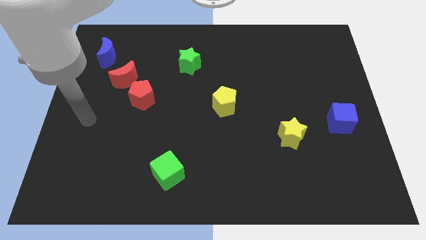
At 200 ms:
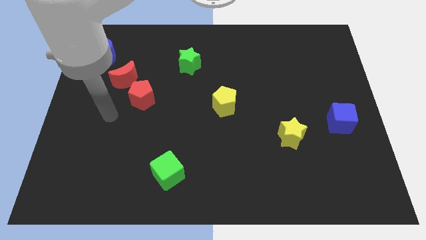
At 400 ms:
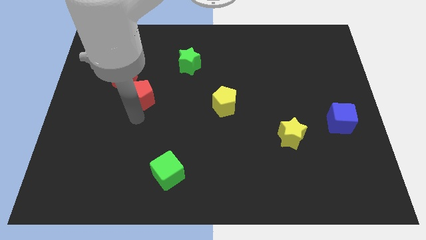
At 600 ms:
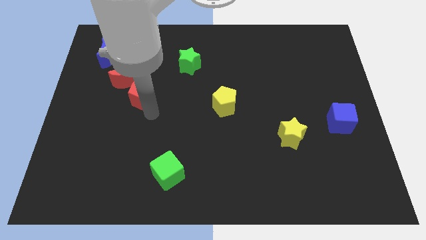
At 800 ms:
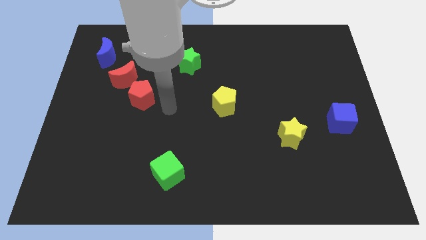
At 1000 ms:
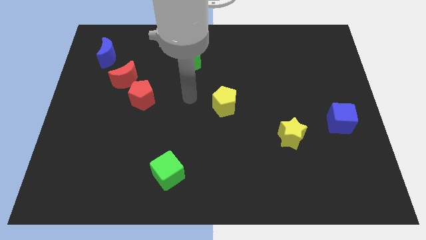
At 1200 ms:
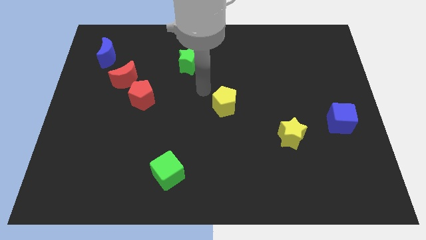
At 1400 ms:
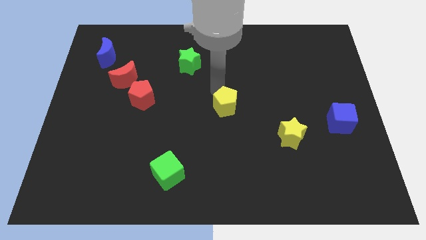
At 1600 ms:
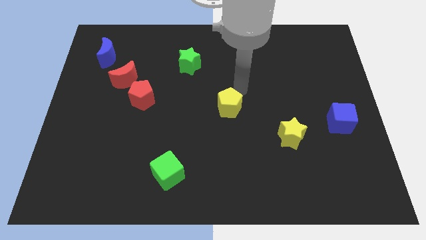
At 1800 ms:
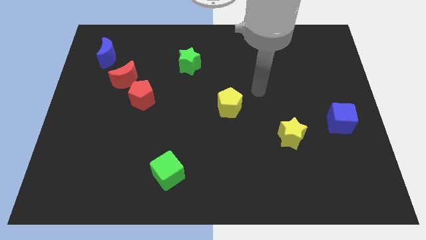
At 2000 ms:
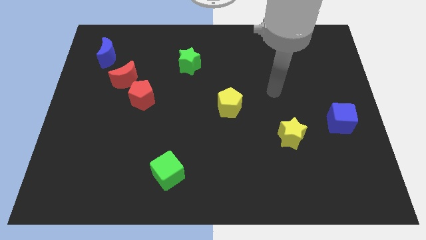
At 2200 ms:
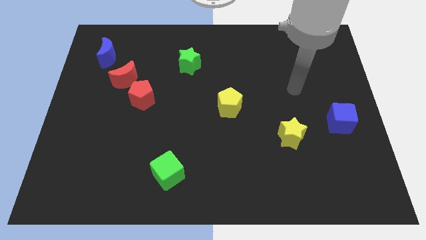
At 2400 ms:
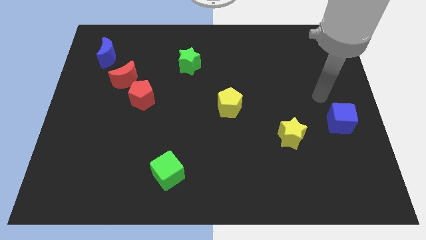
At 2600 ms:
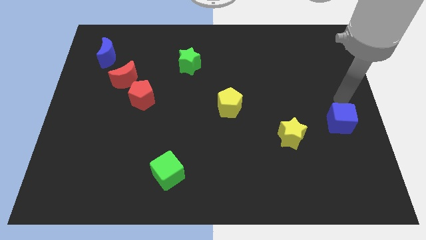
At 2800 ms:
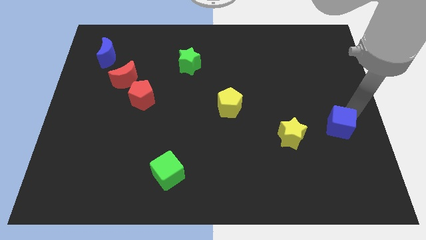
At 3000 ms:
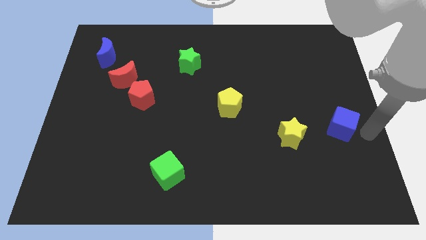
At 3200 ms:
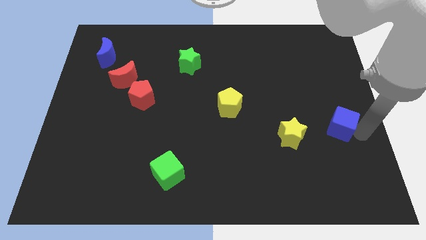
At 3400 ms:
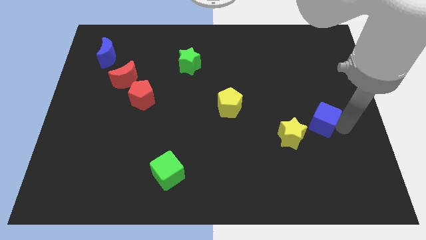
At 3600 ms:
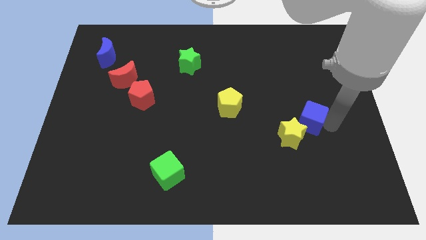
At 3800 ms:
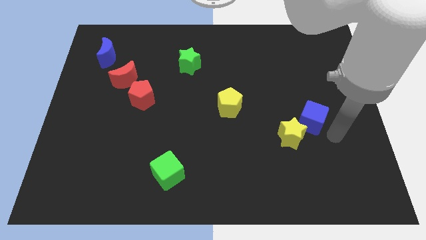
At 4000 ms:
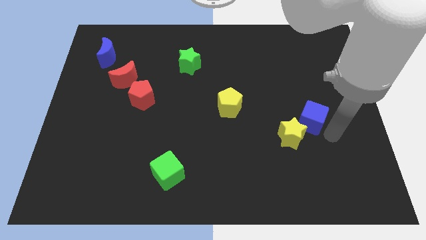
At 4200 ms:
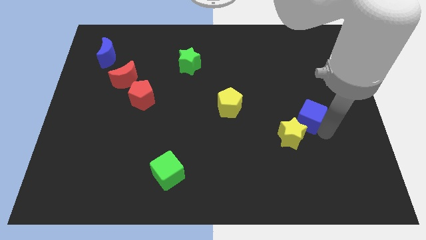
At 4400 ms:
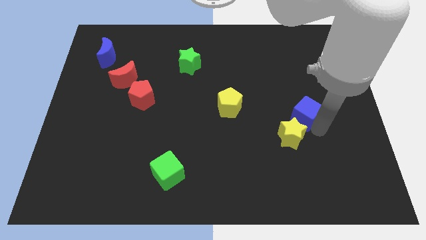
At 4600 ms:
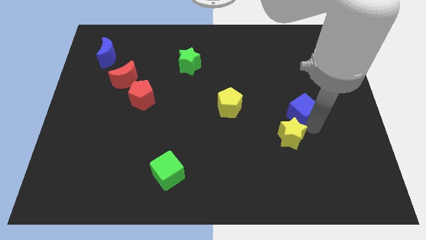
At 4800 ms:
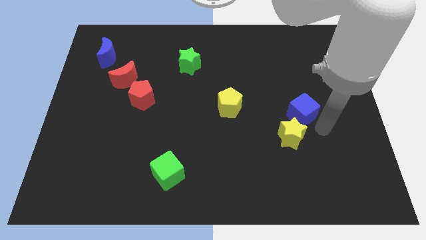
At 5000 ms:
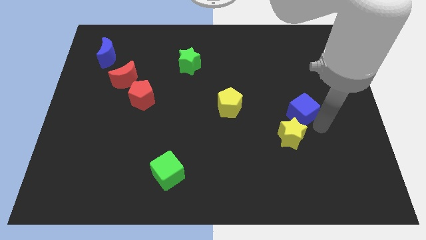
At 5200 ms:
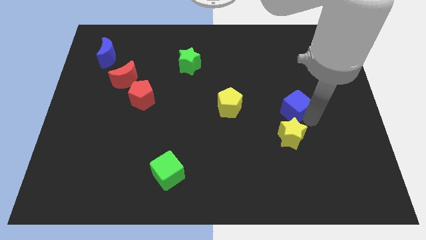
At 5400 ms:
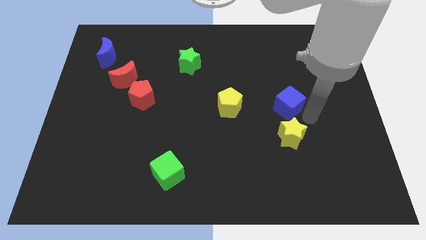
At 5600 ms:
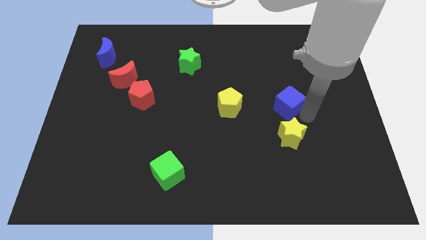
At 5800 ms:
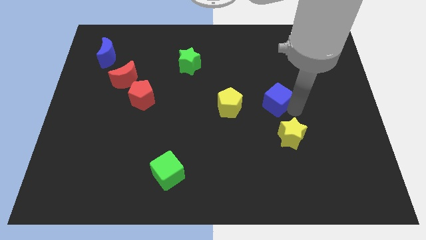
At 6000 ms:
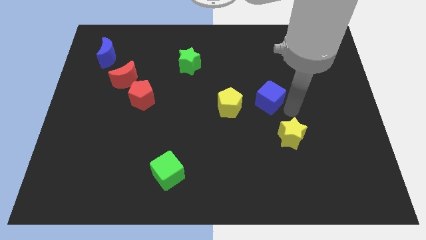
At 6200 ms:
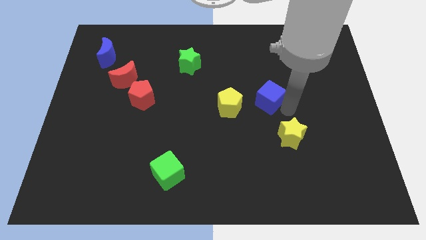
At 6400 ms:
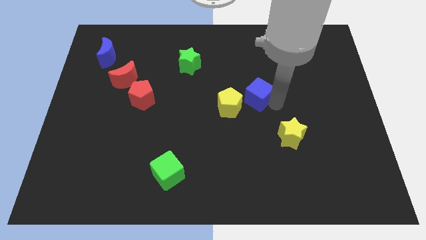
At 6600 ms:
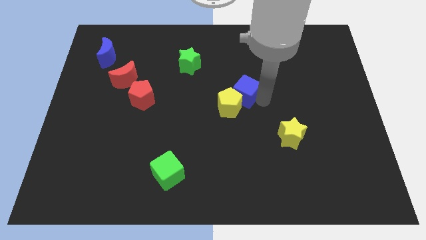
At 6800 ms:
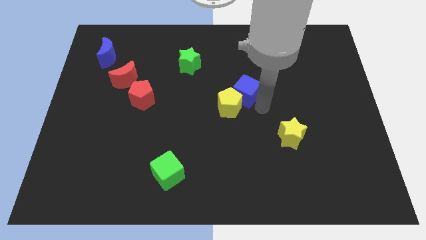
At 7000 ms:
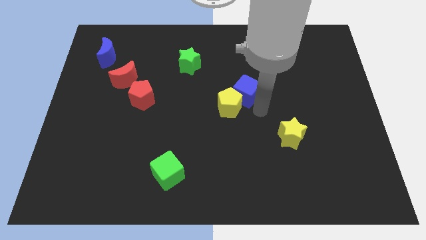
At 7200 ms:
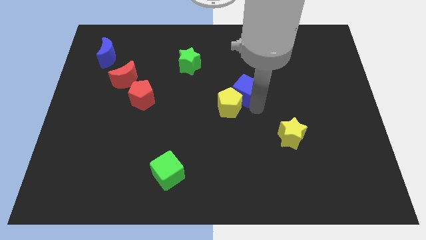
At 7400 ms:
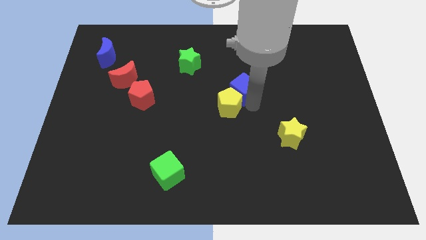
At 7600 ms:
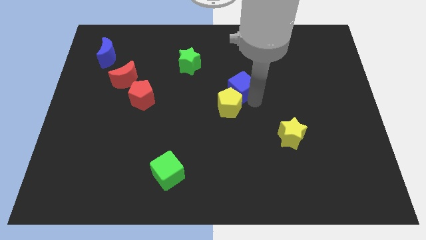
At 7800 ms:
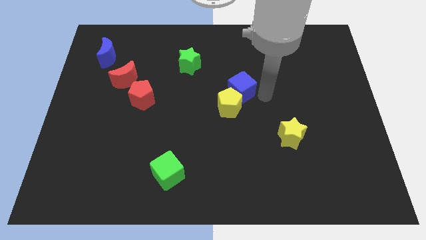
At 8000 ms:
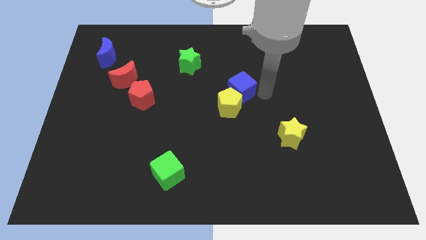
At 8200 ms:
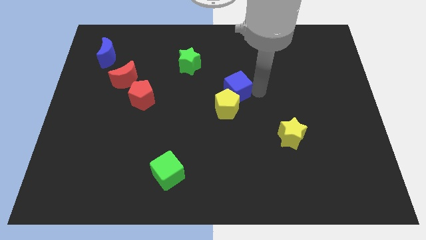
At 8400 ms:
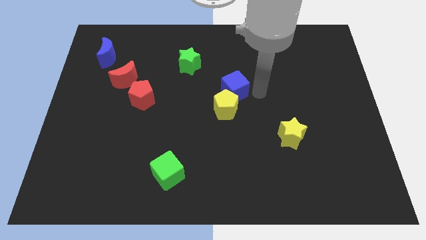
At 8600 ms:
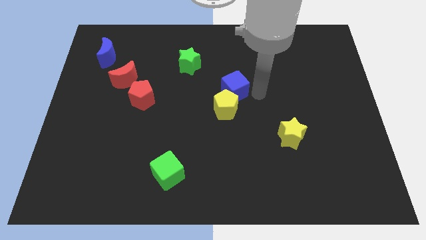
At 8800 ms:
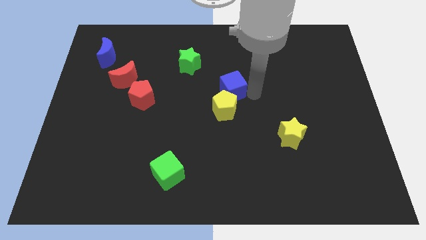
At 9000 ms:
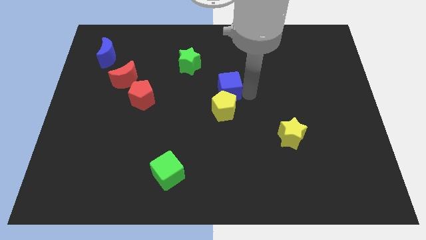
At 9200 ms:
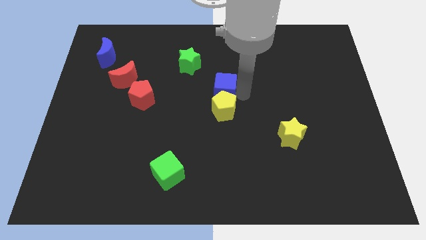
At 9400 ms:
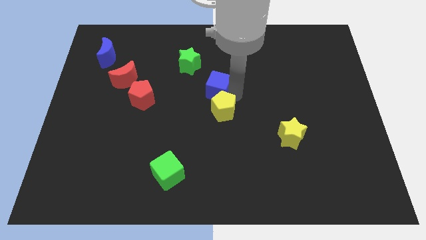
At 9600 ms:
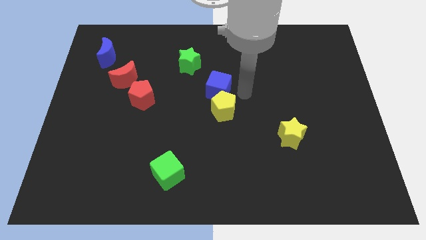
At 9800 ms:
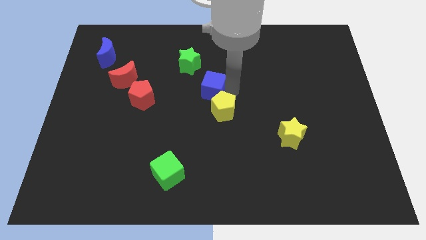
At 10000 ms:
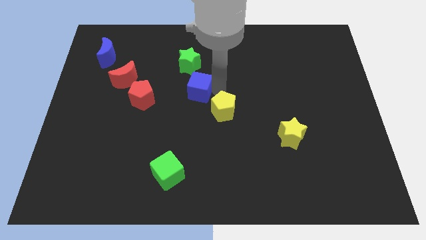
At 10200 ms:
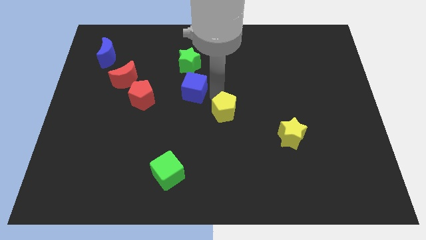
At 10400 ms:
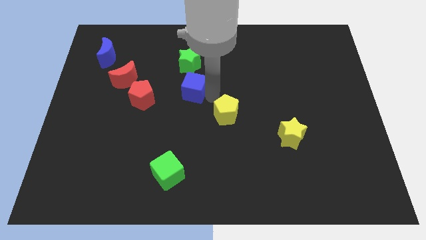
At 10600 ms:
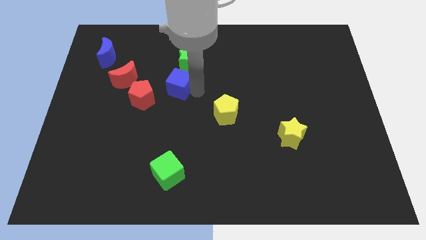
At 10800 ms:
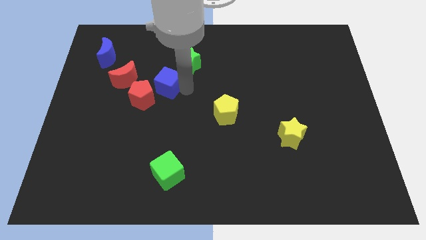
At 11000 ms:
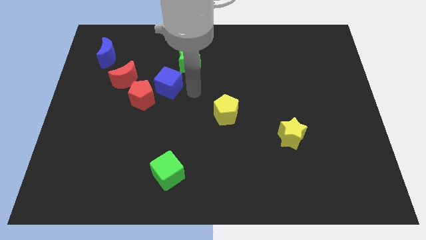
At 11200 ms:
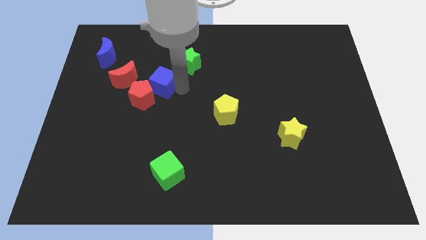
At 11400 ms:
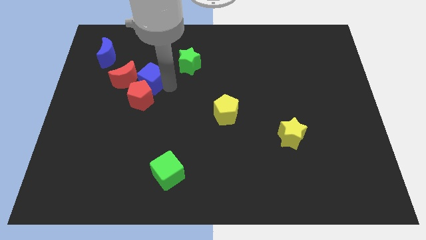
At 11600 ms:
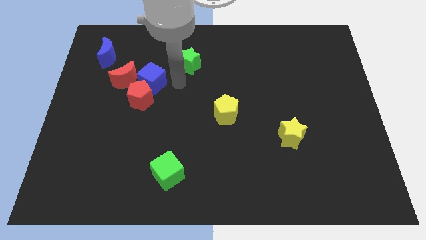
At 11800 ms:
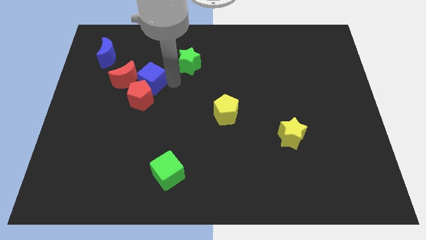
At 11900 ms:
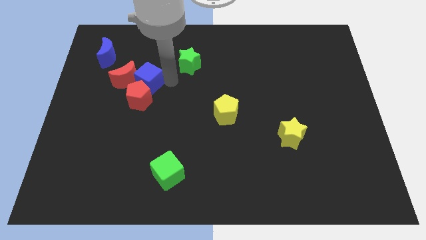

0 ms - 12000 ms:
move the blue cube towards the red moon

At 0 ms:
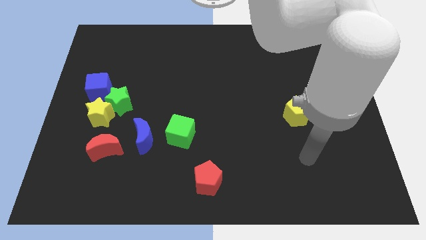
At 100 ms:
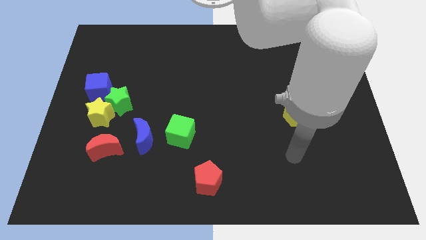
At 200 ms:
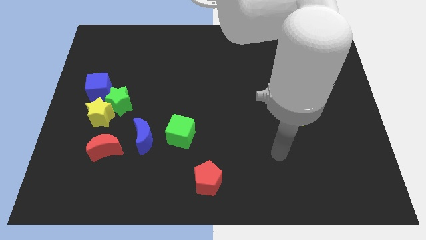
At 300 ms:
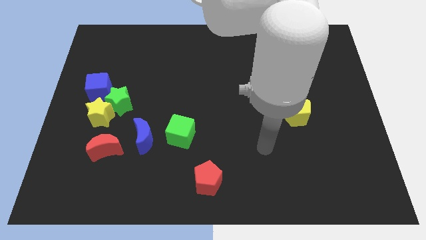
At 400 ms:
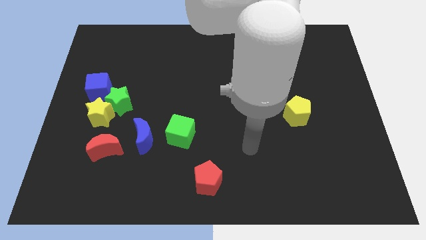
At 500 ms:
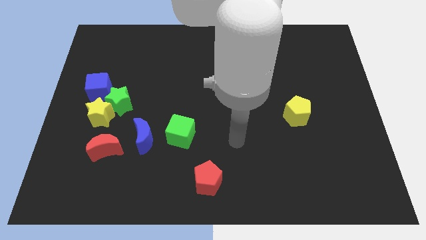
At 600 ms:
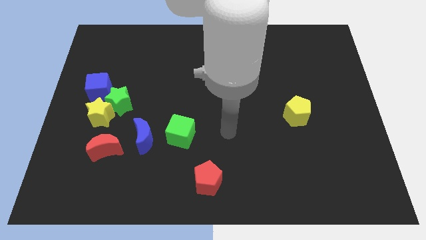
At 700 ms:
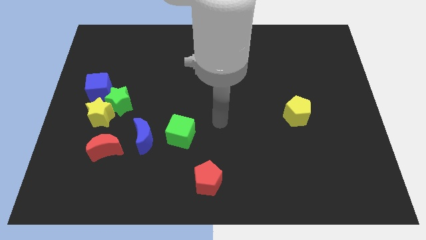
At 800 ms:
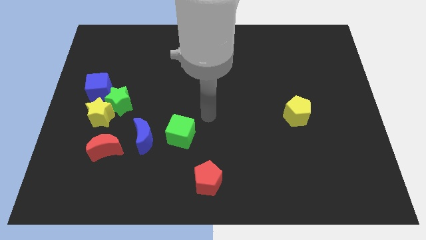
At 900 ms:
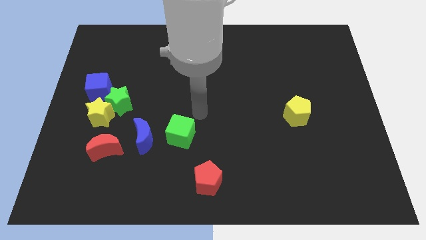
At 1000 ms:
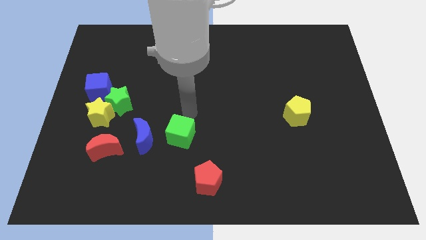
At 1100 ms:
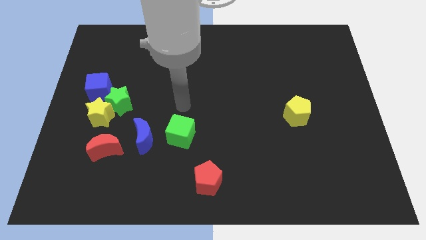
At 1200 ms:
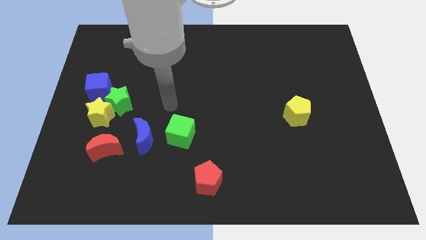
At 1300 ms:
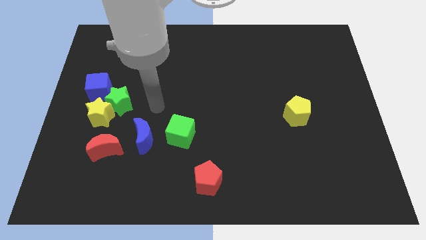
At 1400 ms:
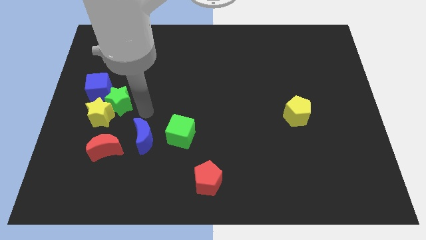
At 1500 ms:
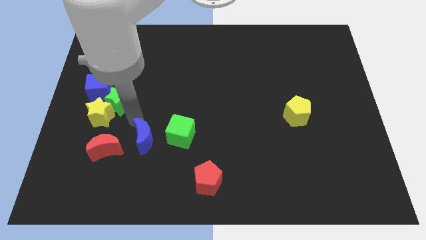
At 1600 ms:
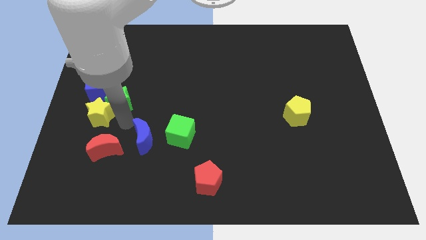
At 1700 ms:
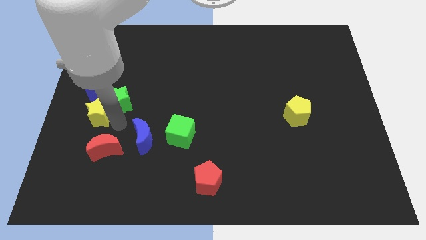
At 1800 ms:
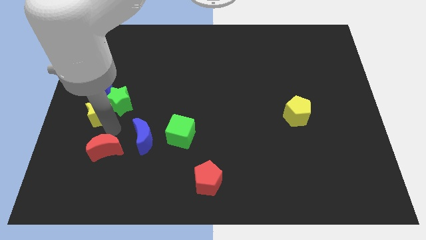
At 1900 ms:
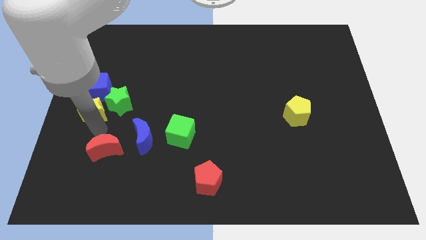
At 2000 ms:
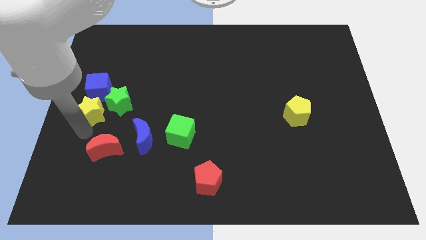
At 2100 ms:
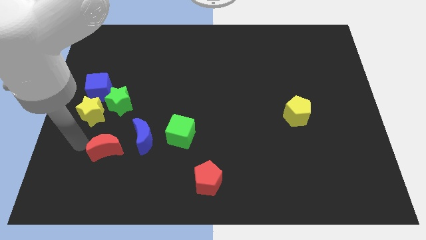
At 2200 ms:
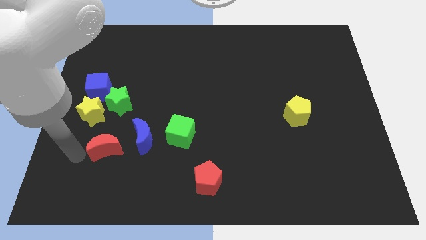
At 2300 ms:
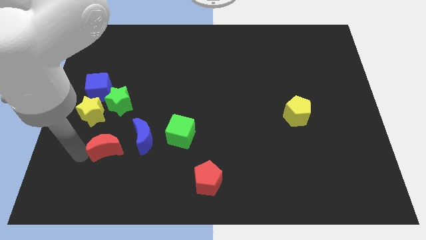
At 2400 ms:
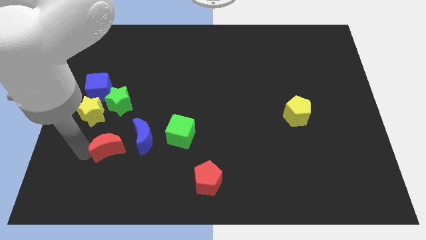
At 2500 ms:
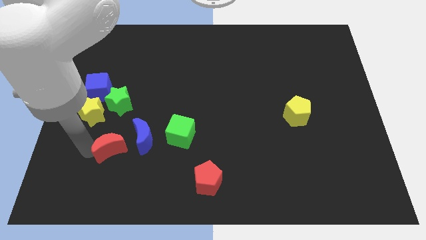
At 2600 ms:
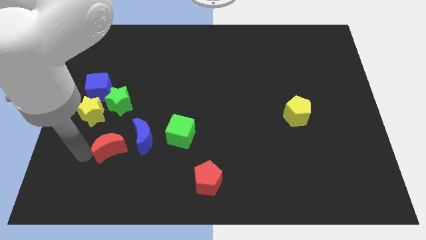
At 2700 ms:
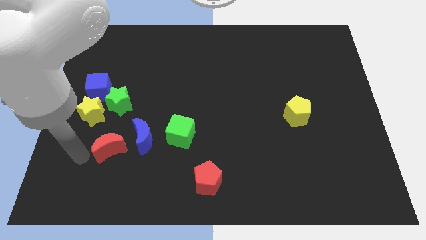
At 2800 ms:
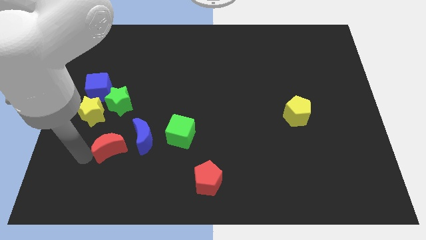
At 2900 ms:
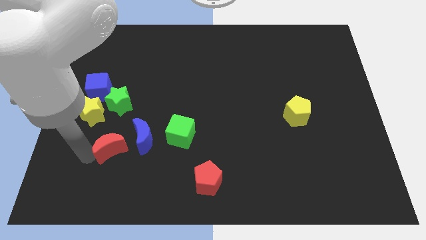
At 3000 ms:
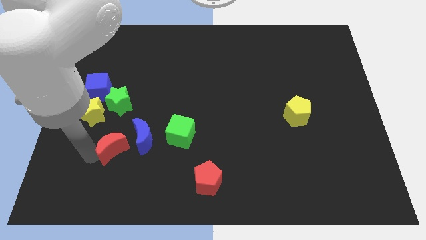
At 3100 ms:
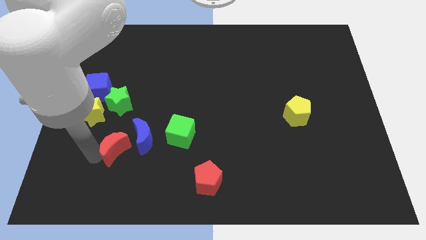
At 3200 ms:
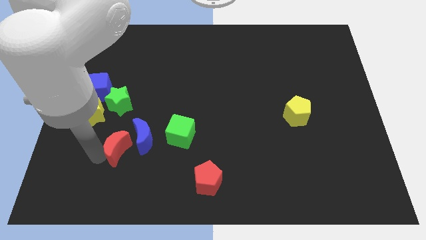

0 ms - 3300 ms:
push the red moon towards the blue moon
